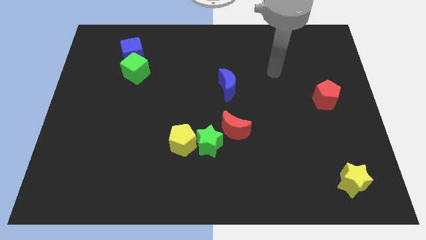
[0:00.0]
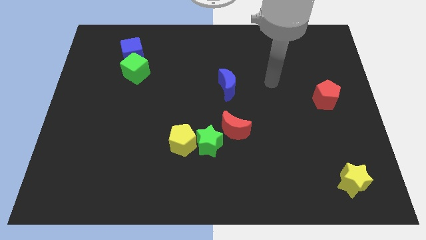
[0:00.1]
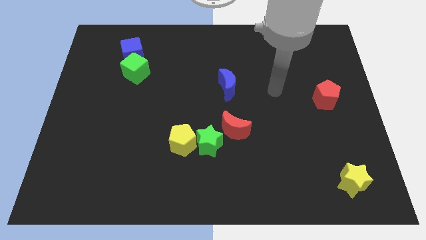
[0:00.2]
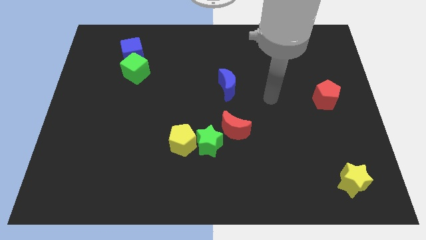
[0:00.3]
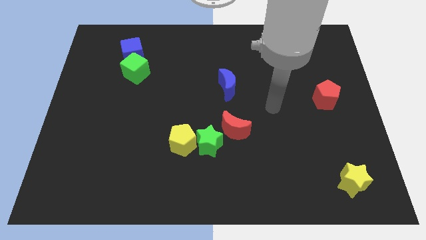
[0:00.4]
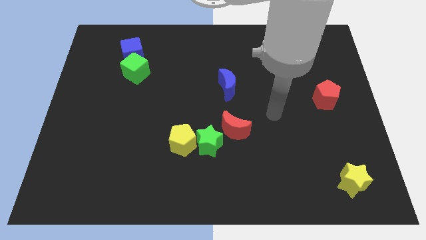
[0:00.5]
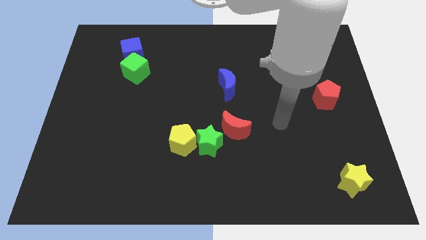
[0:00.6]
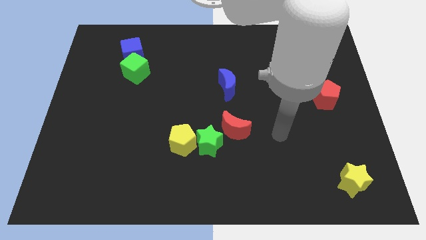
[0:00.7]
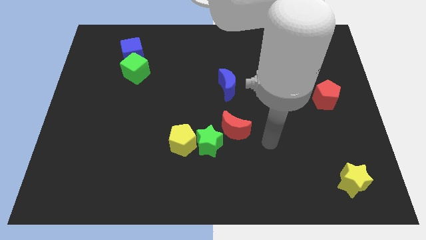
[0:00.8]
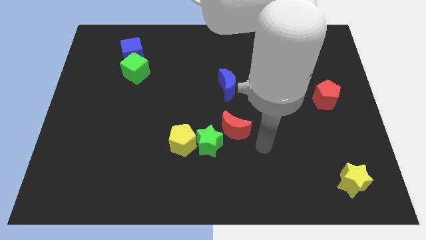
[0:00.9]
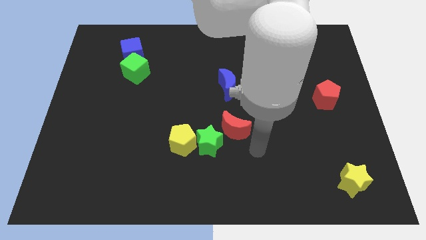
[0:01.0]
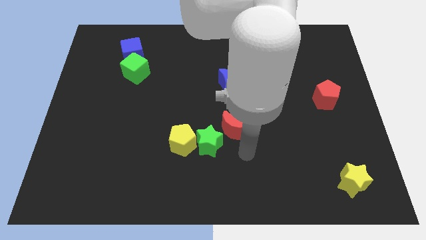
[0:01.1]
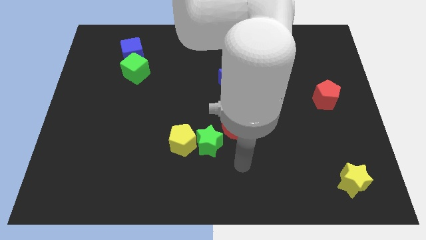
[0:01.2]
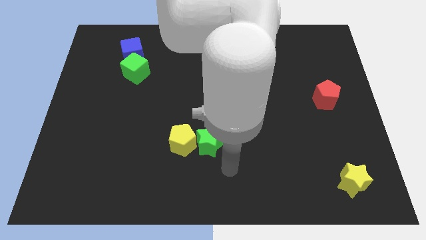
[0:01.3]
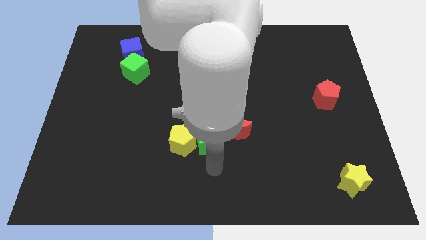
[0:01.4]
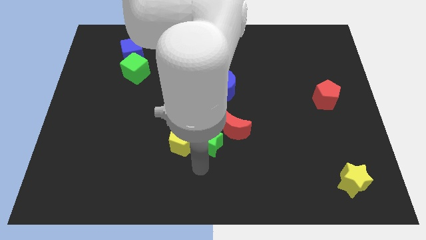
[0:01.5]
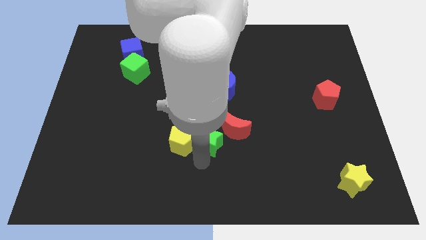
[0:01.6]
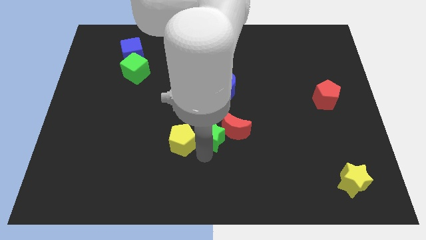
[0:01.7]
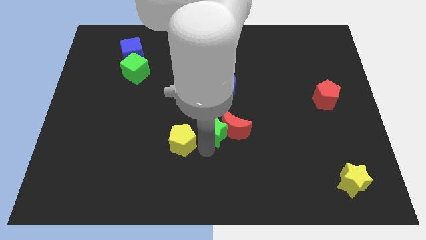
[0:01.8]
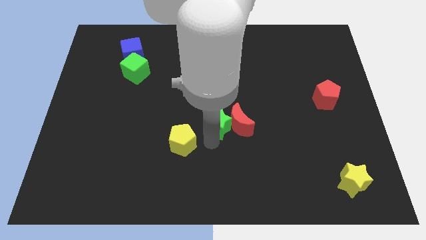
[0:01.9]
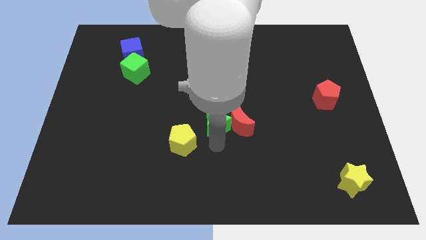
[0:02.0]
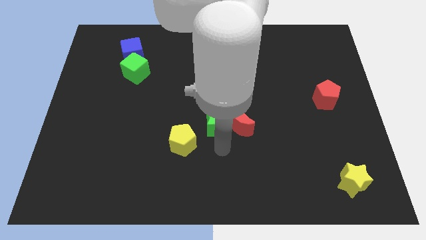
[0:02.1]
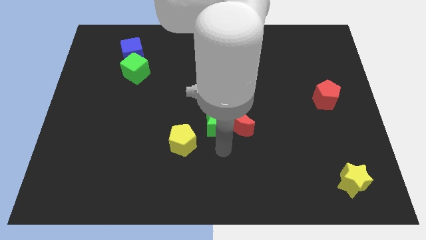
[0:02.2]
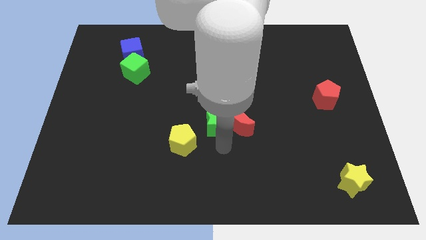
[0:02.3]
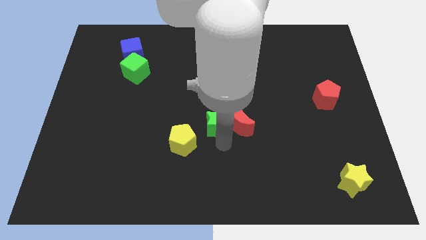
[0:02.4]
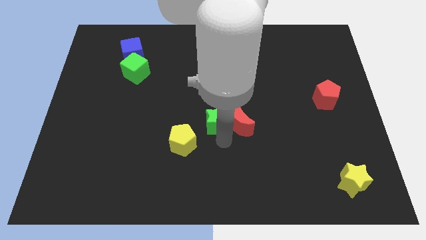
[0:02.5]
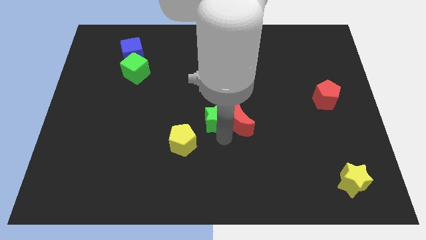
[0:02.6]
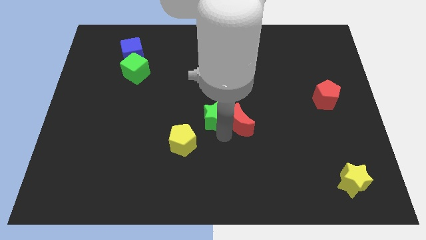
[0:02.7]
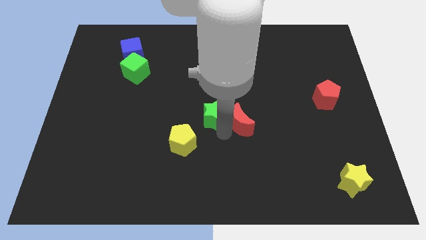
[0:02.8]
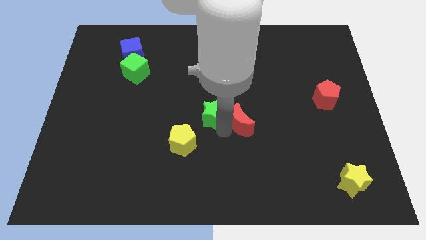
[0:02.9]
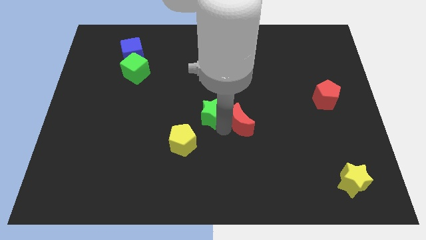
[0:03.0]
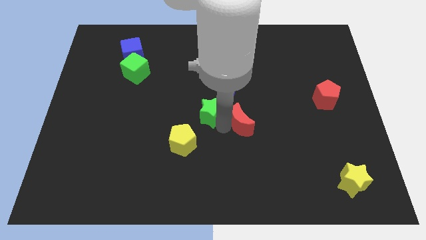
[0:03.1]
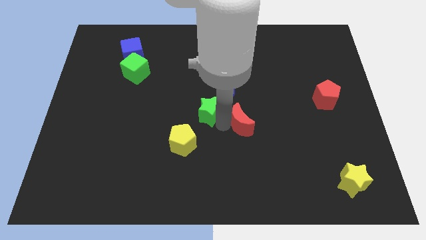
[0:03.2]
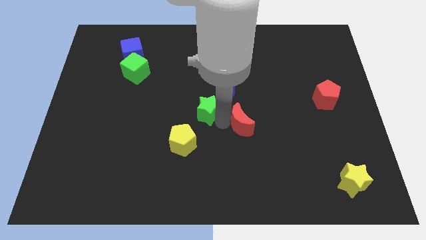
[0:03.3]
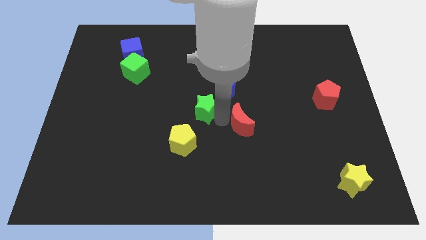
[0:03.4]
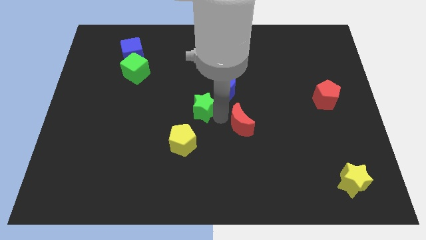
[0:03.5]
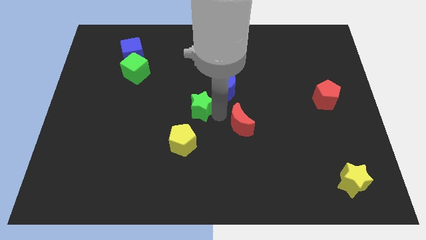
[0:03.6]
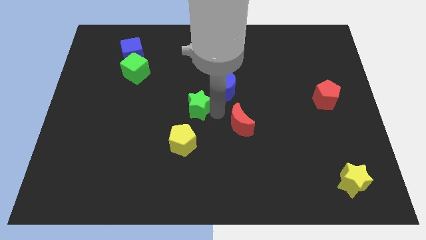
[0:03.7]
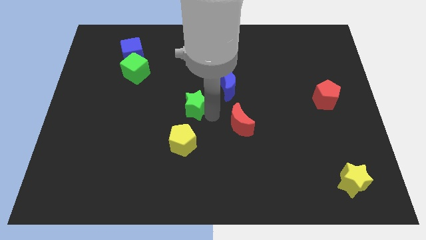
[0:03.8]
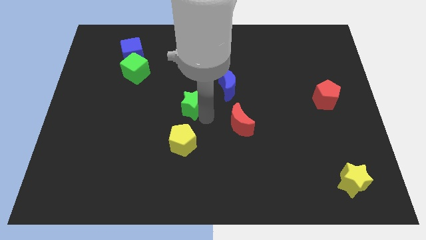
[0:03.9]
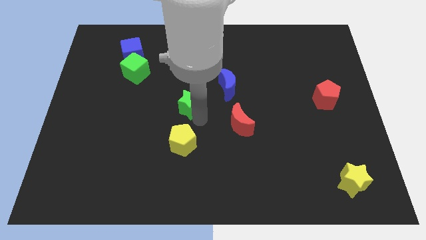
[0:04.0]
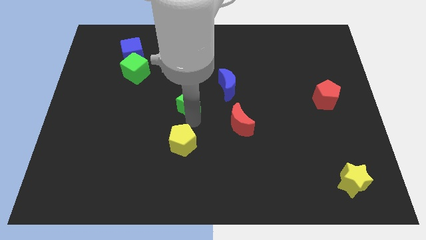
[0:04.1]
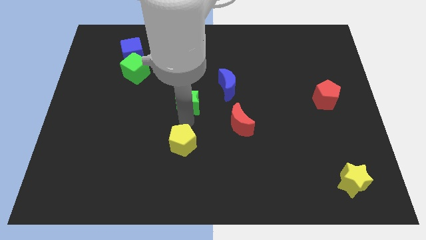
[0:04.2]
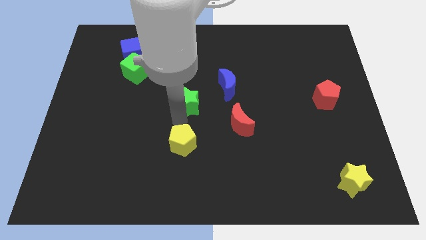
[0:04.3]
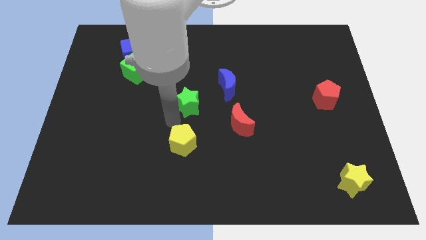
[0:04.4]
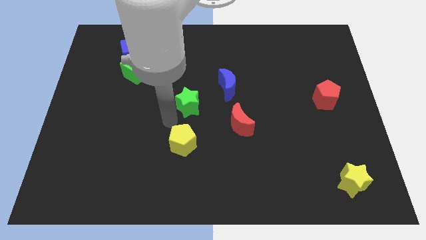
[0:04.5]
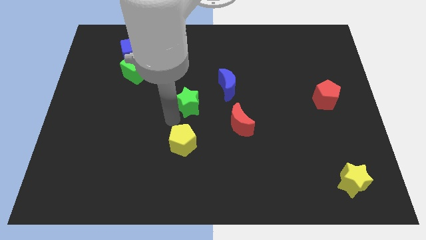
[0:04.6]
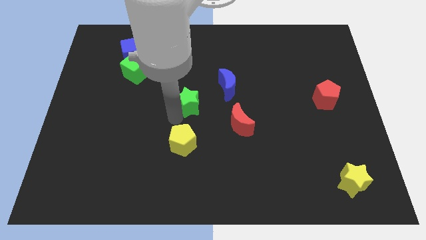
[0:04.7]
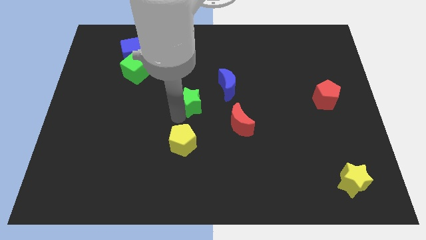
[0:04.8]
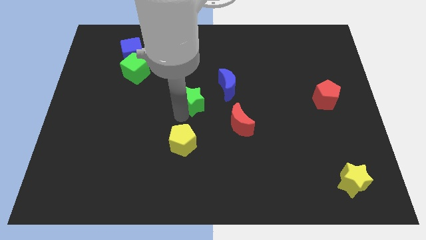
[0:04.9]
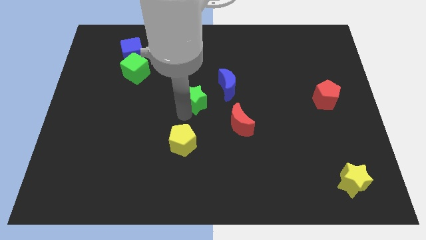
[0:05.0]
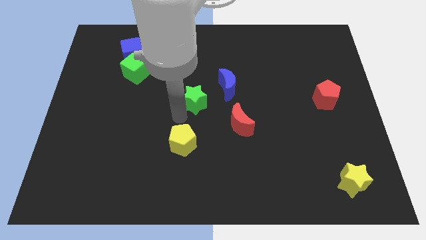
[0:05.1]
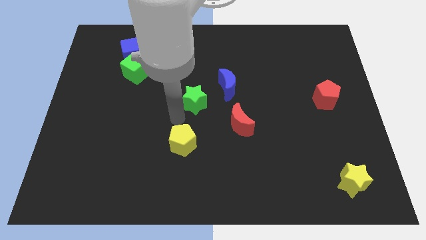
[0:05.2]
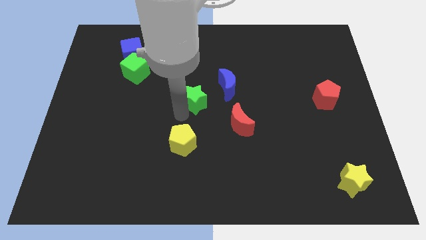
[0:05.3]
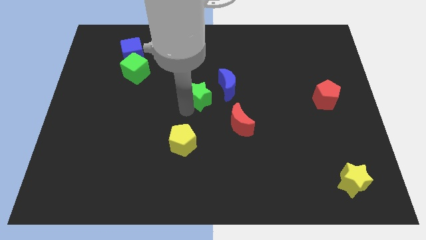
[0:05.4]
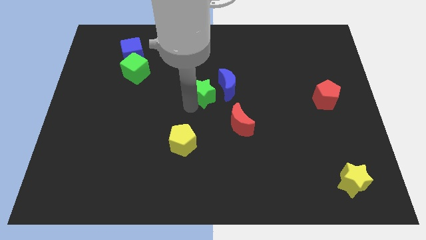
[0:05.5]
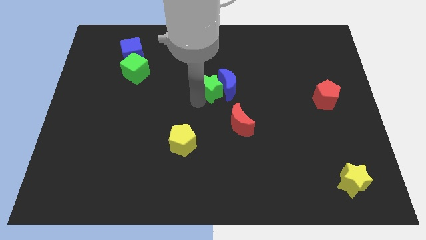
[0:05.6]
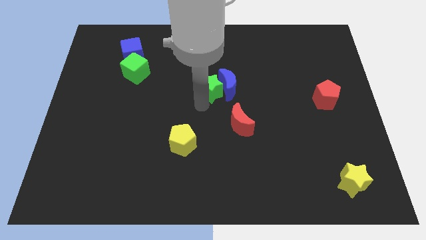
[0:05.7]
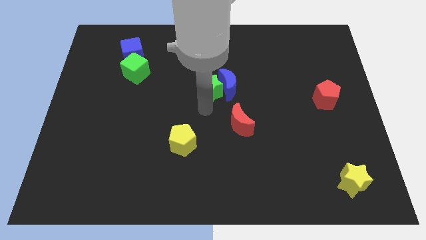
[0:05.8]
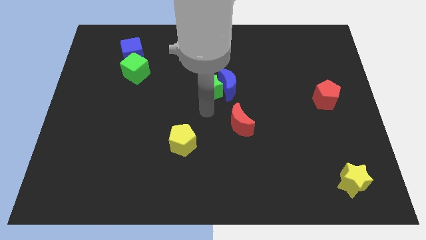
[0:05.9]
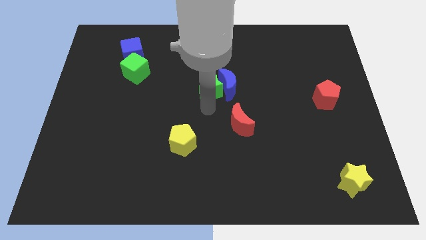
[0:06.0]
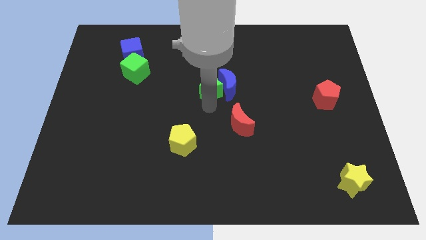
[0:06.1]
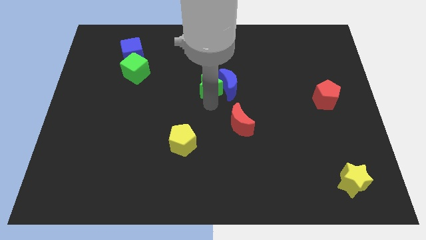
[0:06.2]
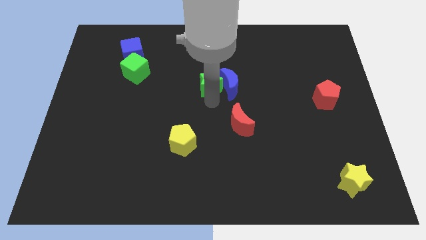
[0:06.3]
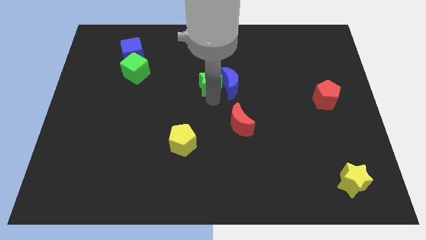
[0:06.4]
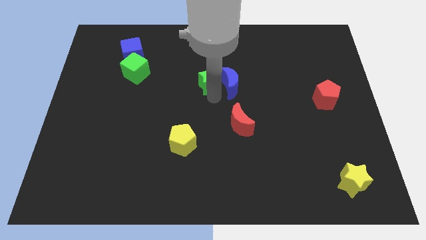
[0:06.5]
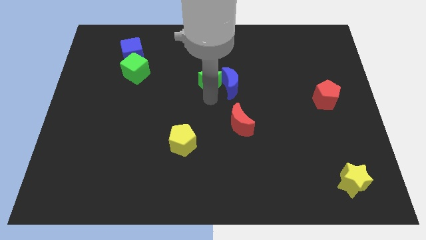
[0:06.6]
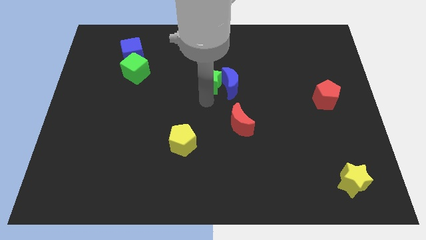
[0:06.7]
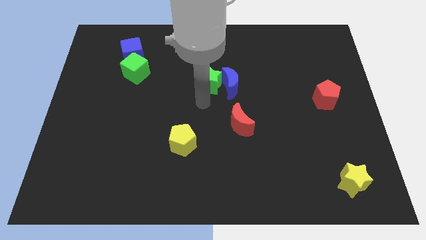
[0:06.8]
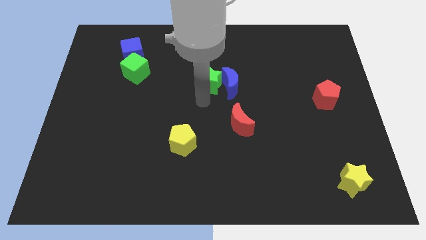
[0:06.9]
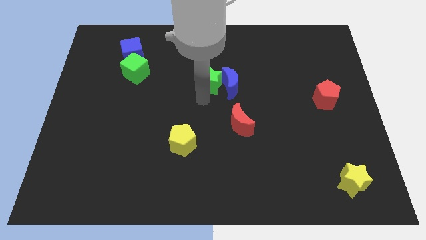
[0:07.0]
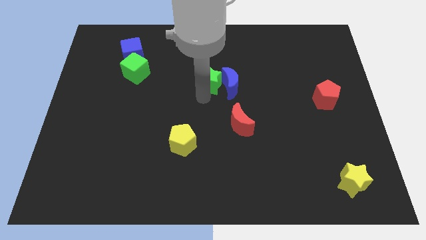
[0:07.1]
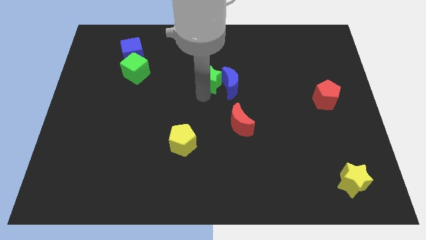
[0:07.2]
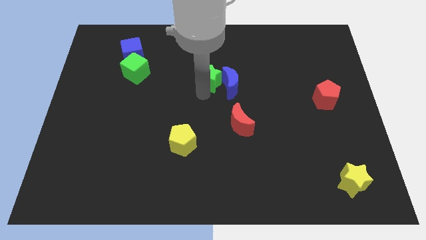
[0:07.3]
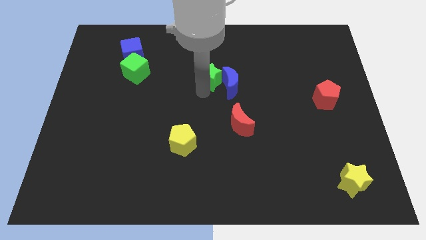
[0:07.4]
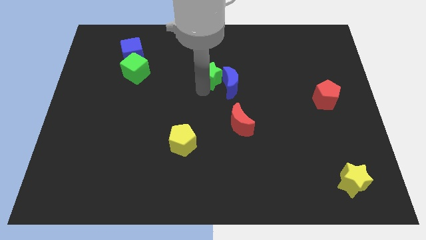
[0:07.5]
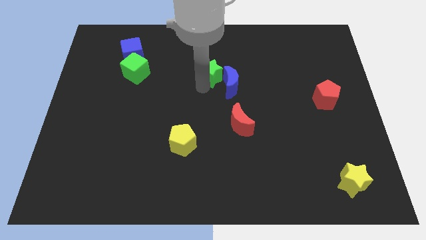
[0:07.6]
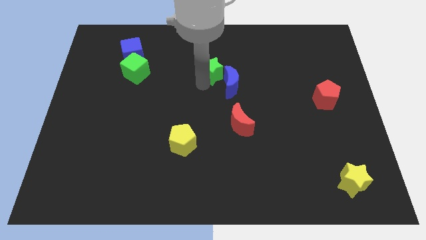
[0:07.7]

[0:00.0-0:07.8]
put the green star above the blue moon
